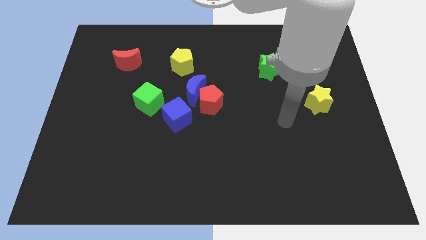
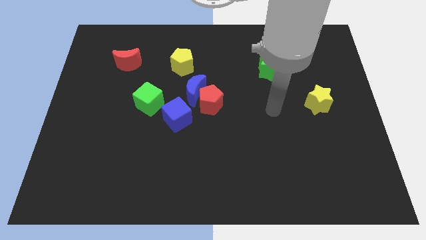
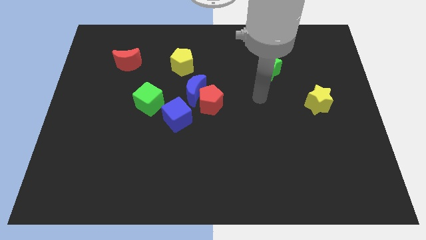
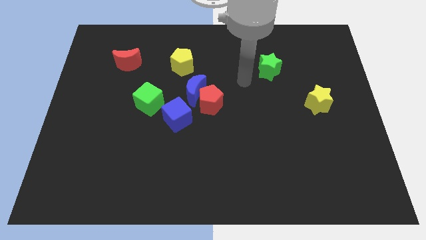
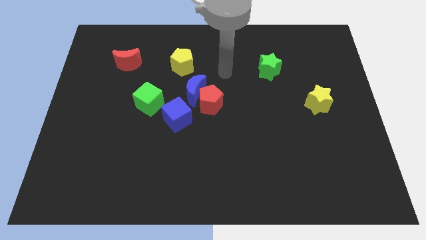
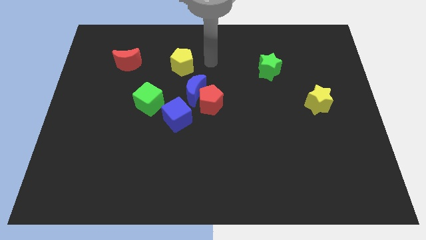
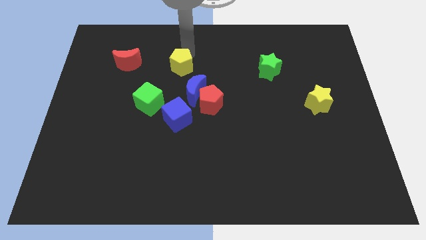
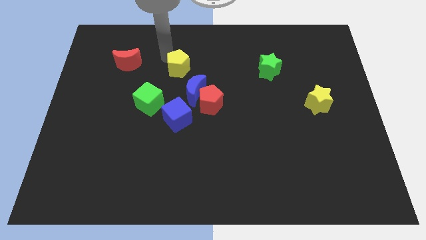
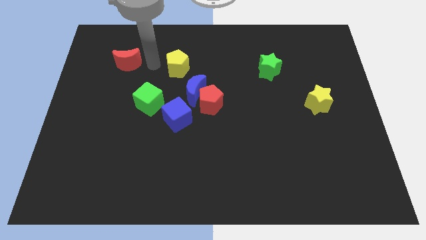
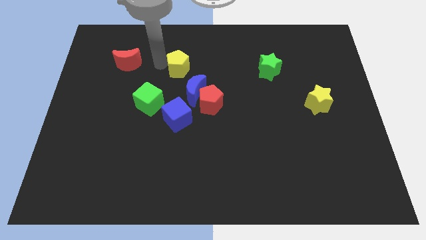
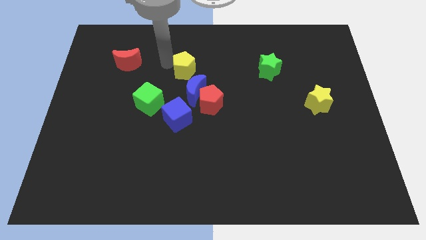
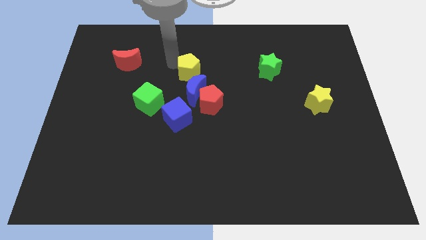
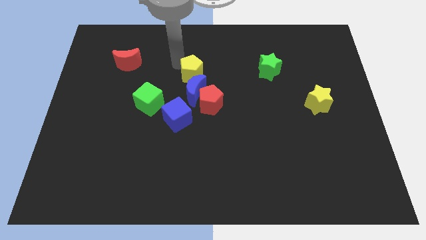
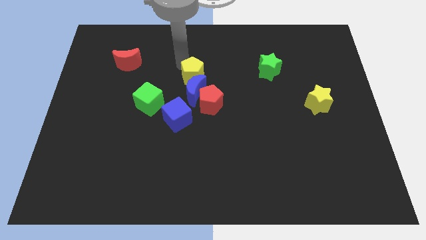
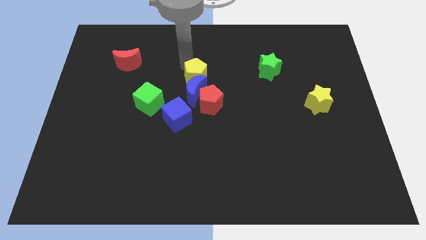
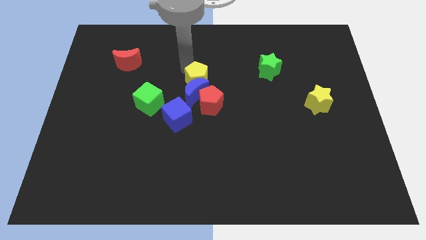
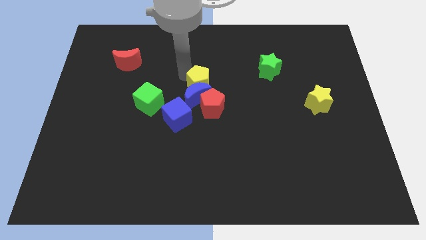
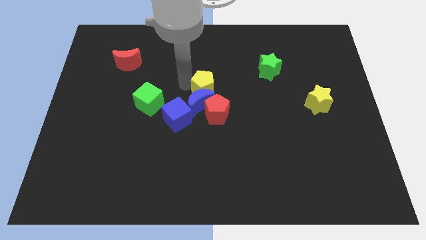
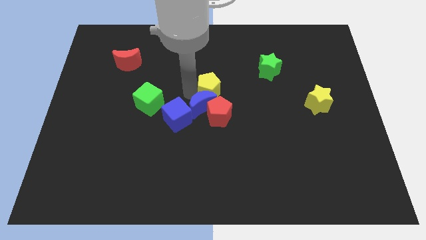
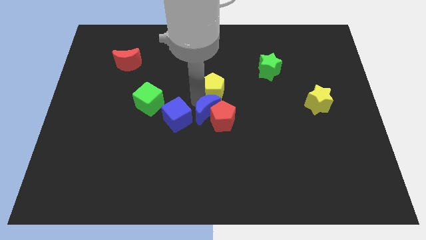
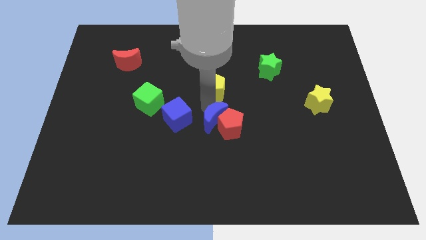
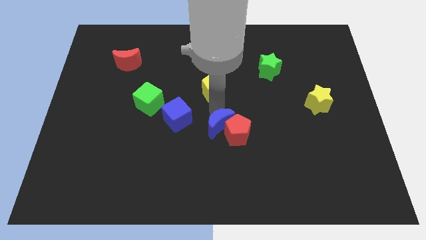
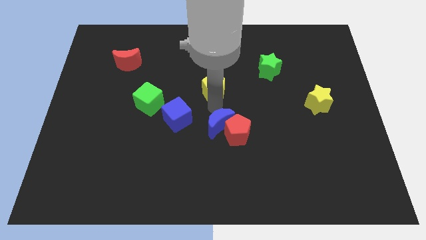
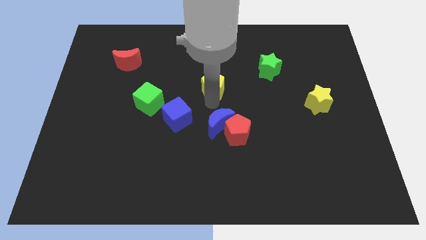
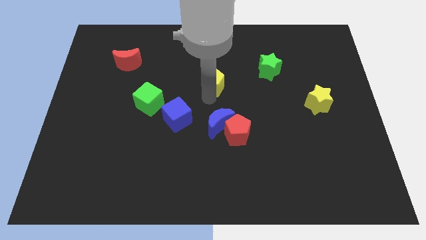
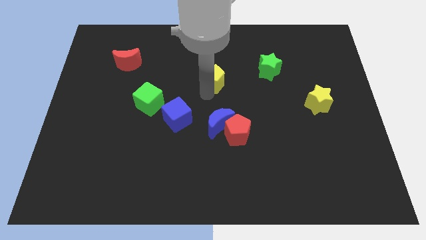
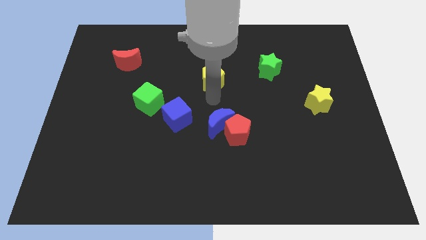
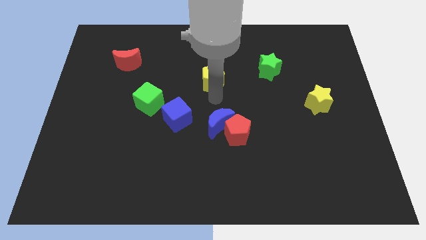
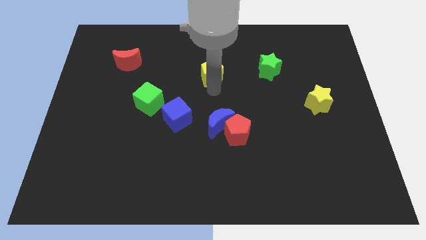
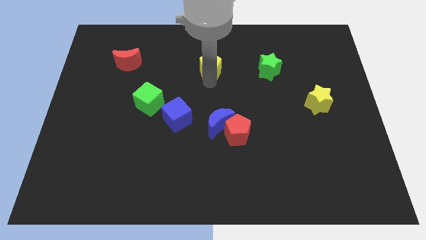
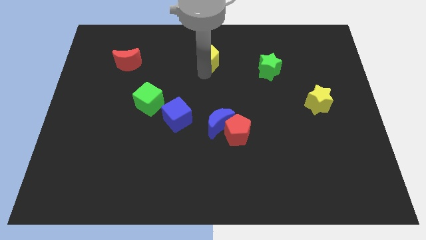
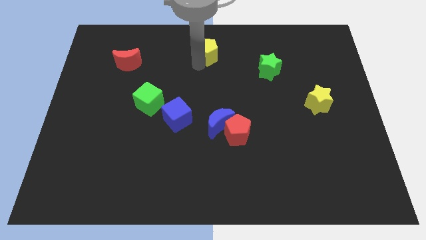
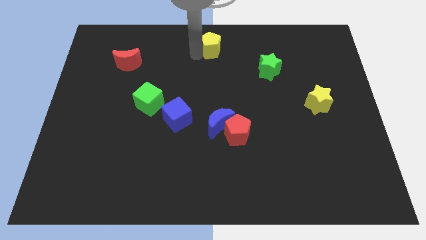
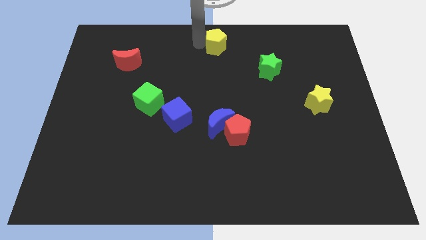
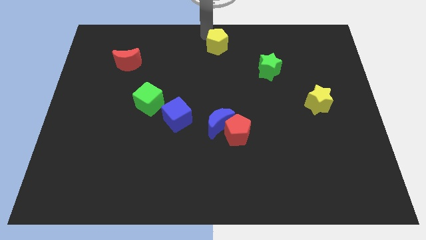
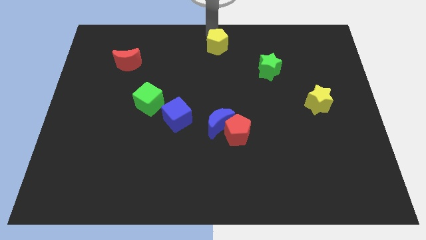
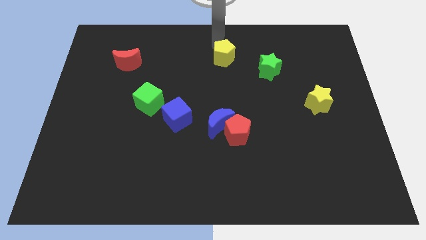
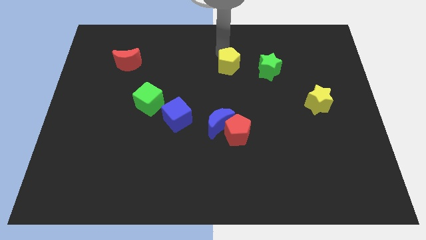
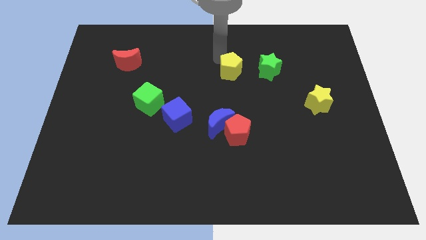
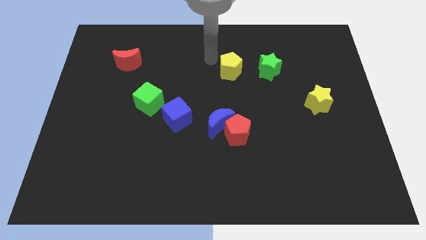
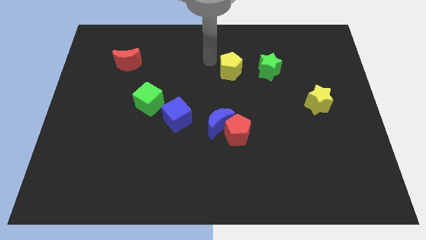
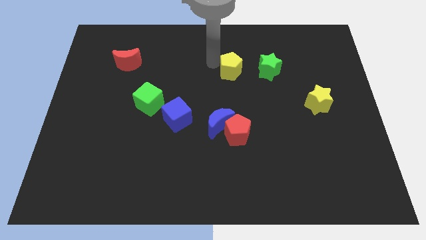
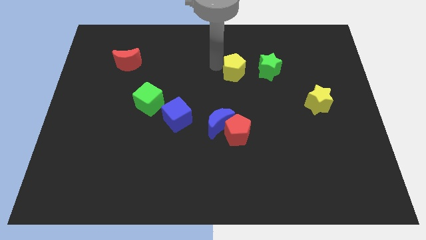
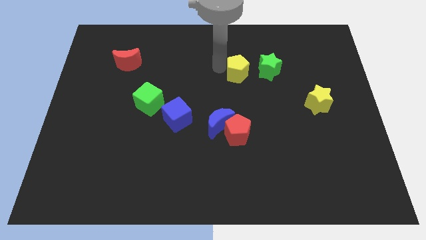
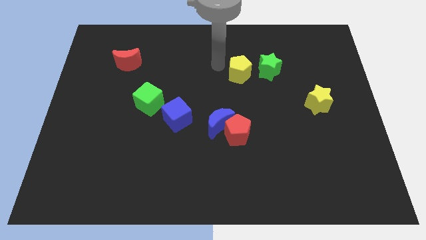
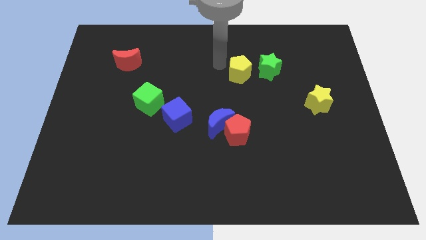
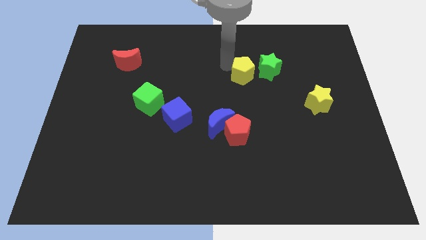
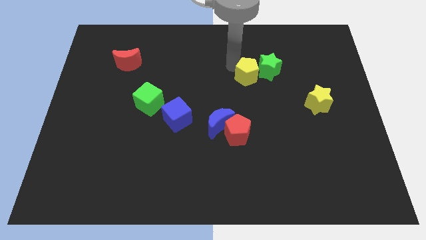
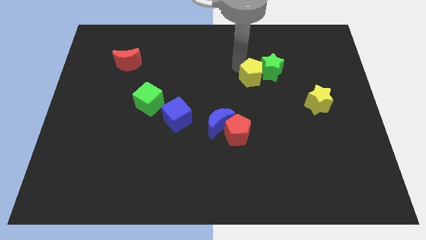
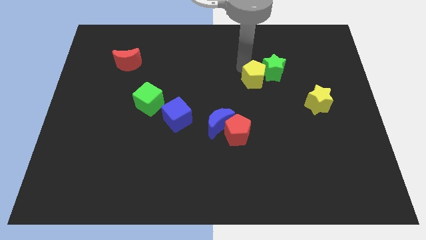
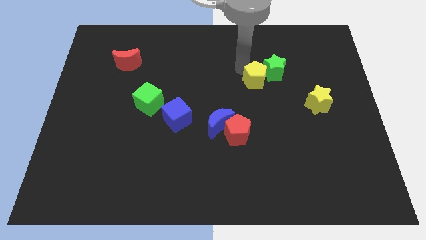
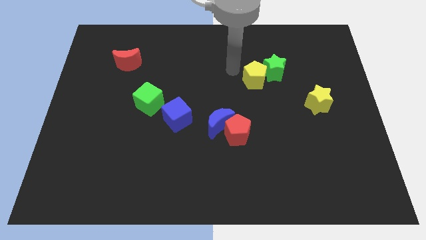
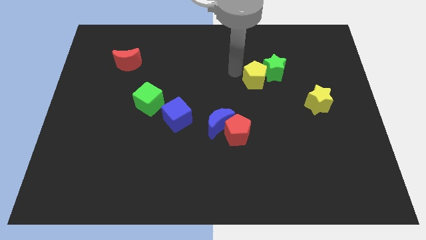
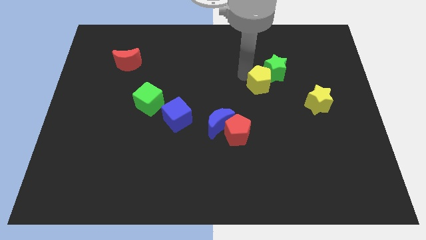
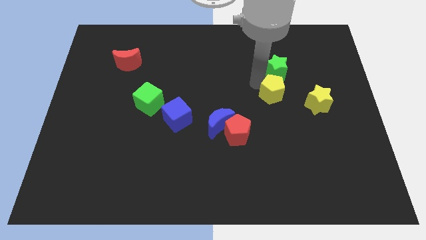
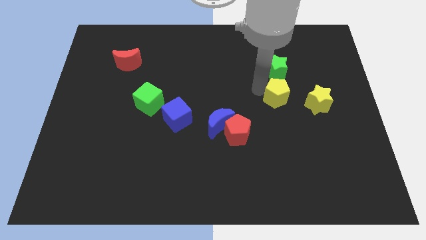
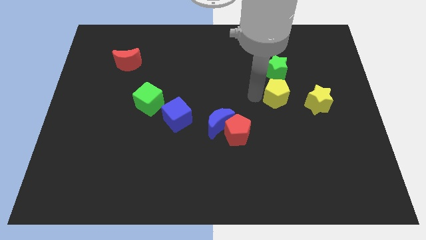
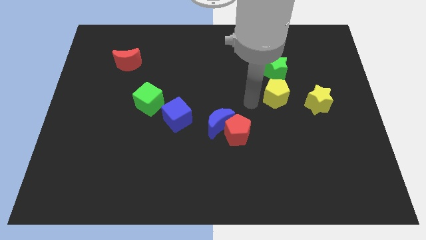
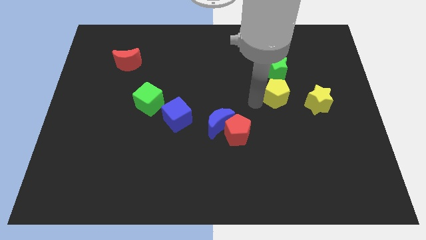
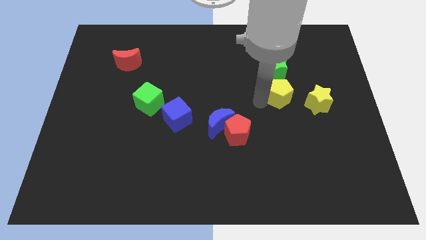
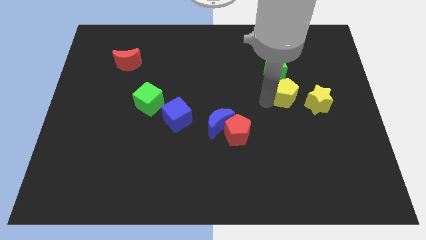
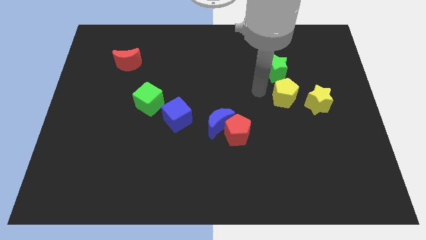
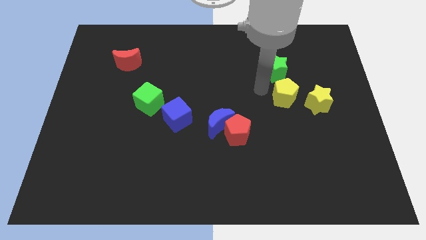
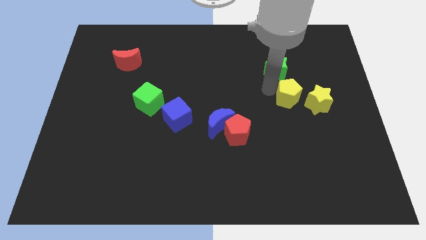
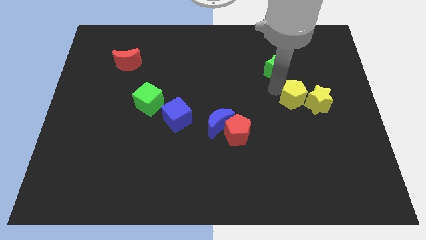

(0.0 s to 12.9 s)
push the yellow pentagon towards the yellow star

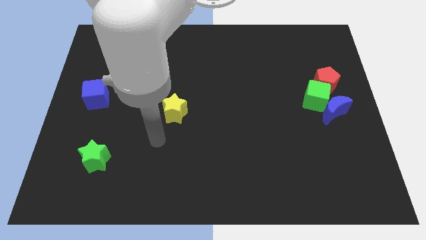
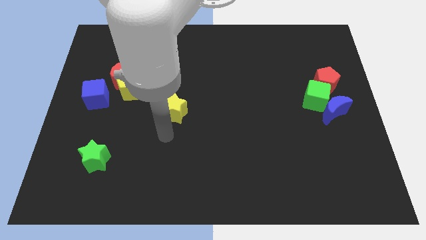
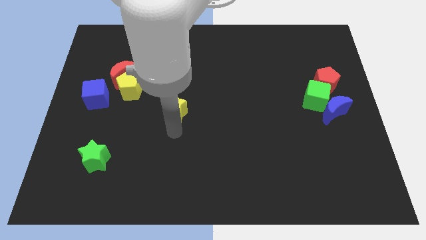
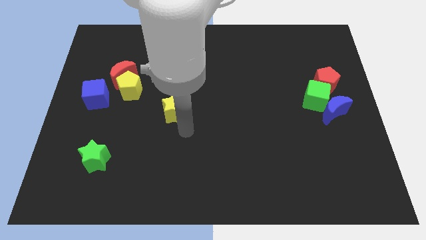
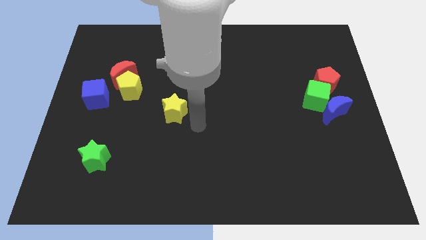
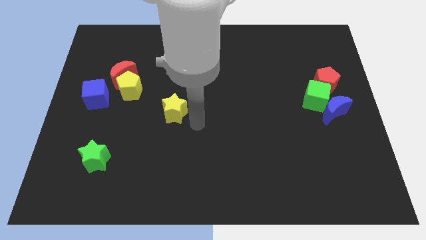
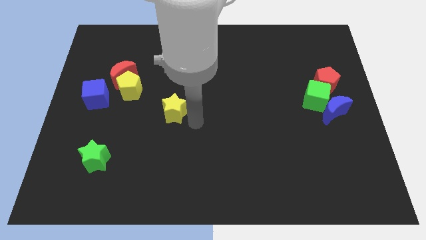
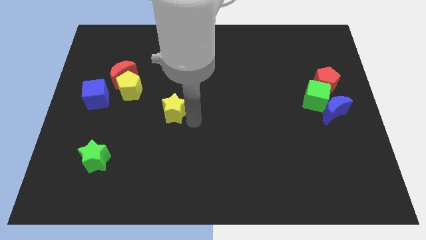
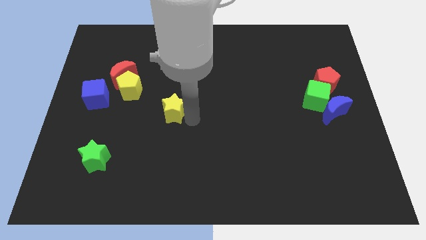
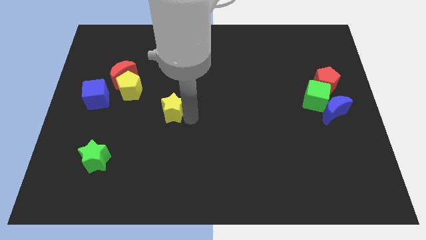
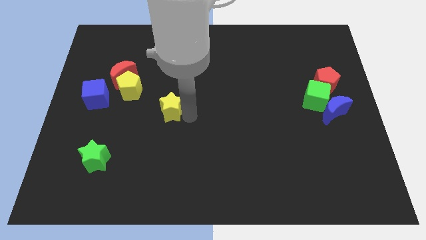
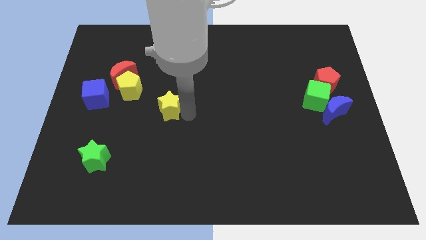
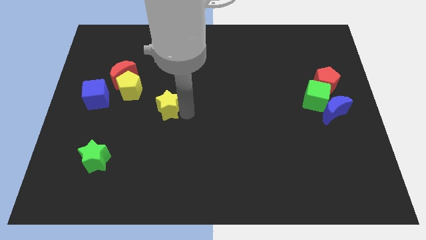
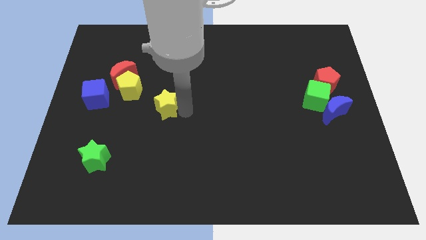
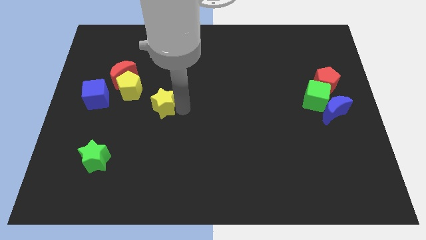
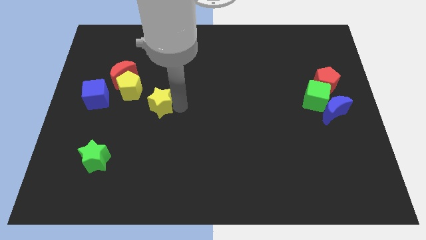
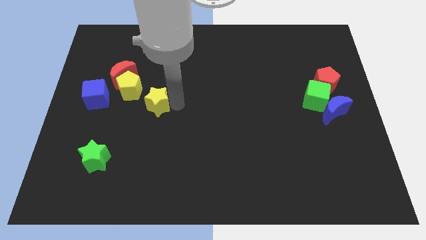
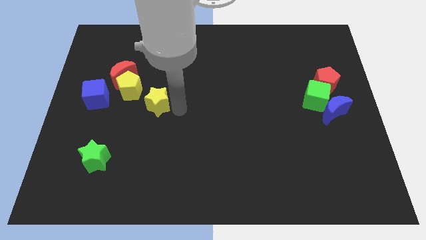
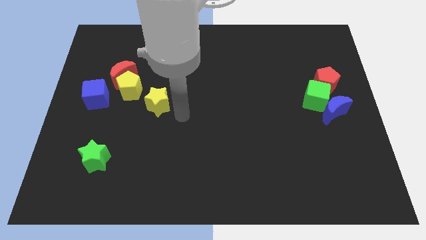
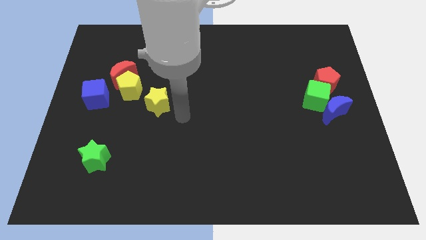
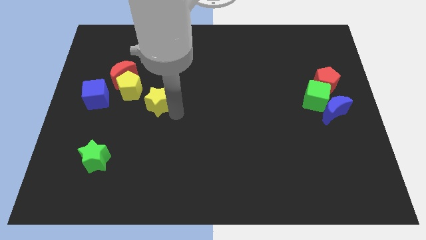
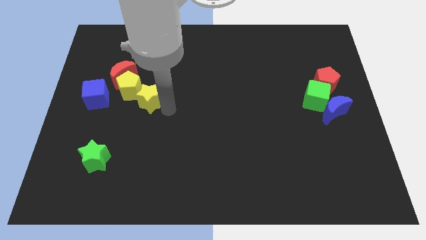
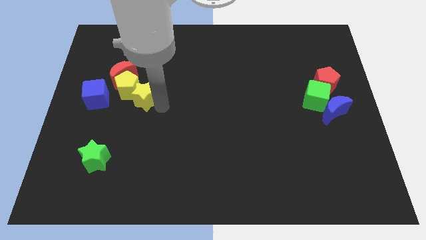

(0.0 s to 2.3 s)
push the yellow star to the yellow pentagon
